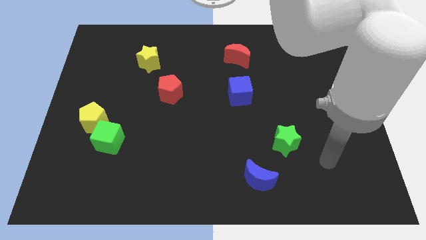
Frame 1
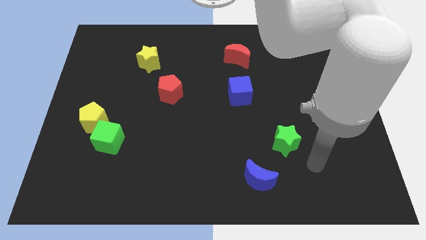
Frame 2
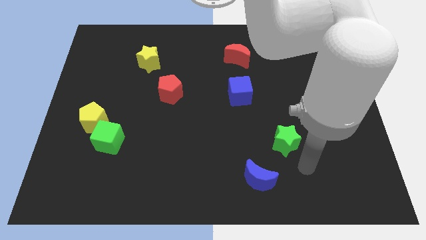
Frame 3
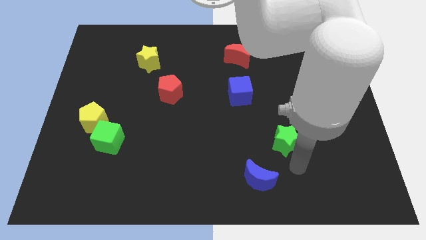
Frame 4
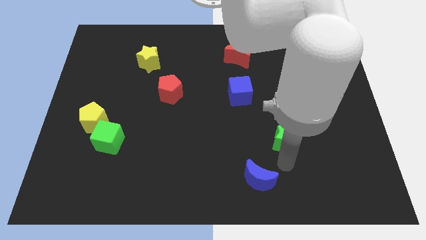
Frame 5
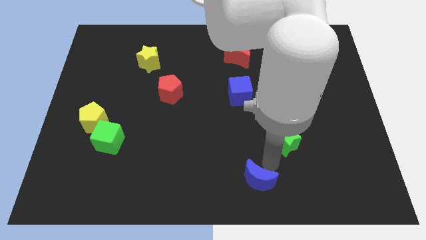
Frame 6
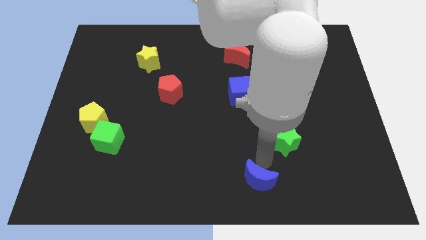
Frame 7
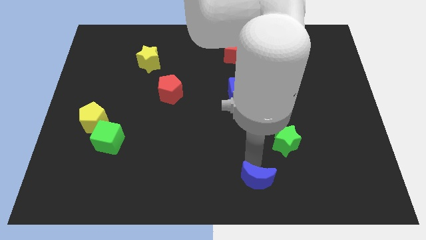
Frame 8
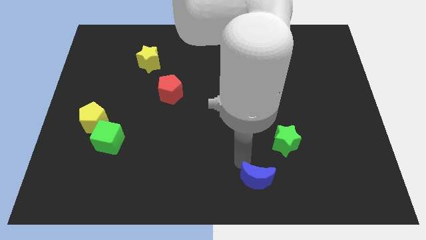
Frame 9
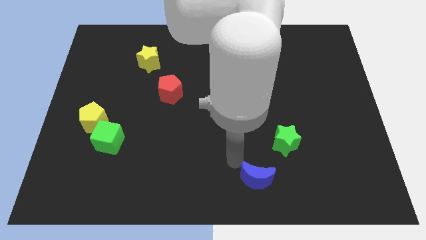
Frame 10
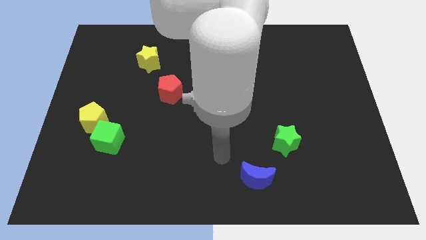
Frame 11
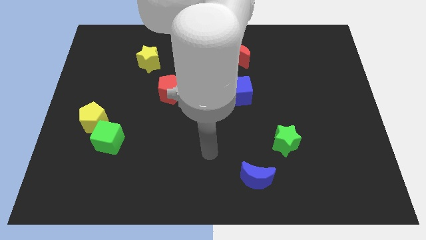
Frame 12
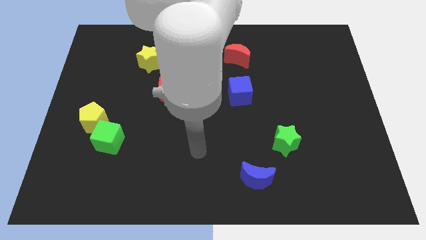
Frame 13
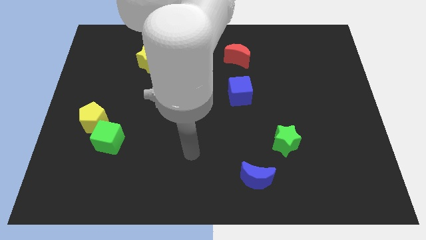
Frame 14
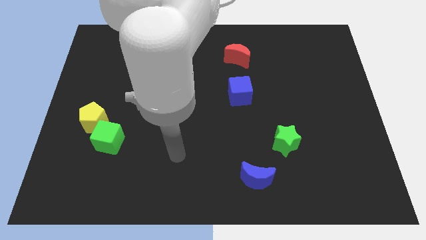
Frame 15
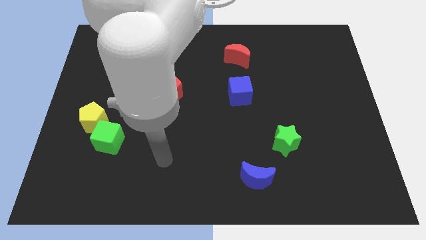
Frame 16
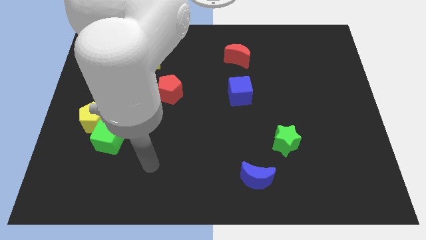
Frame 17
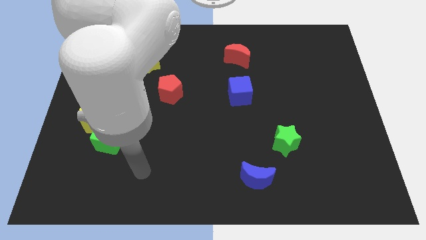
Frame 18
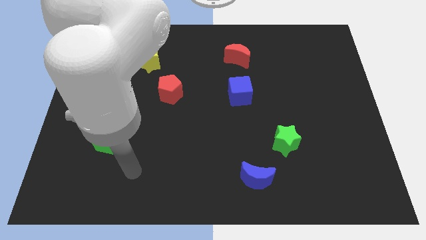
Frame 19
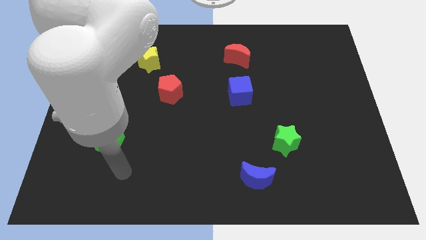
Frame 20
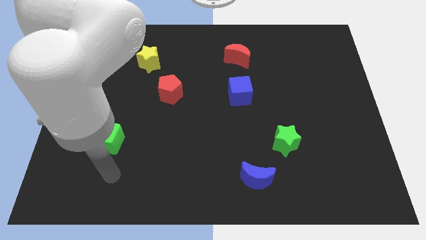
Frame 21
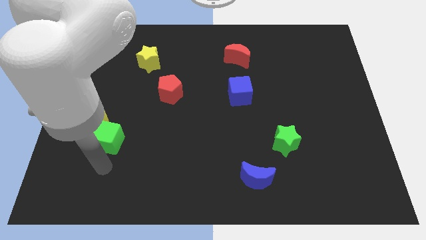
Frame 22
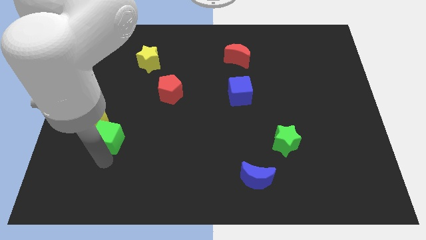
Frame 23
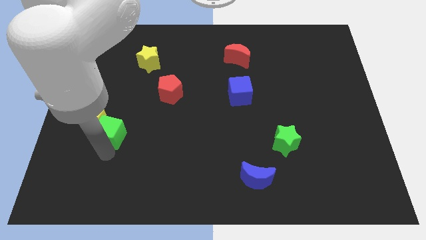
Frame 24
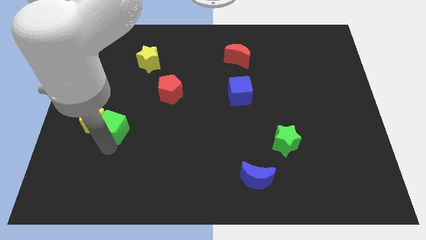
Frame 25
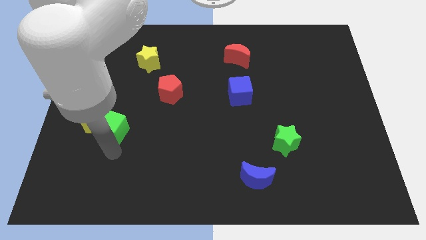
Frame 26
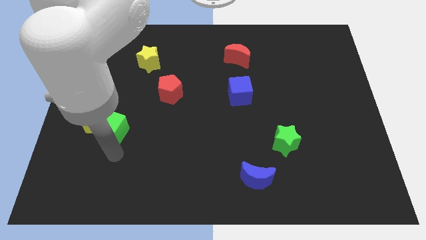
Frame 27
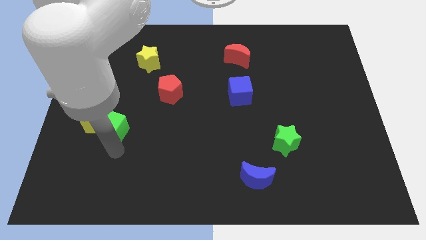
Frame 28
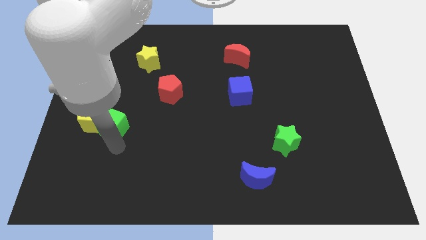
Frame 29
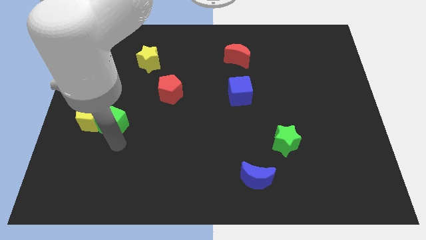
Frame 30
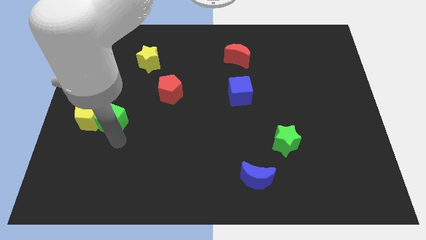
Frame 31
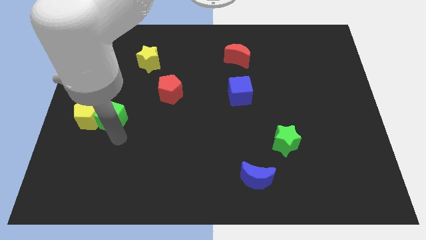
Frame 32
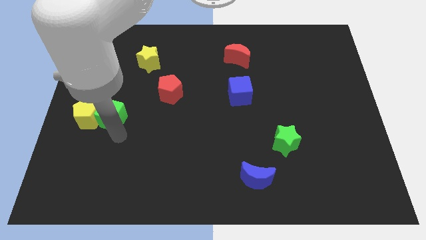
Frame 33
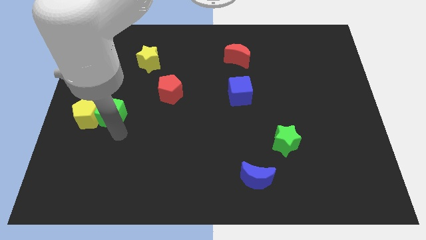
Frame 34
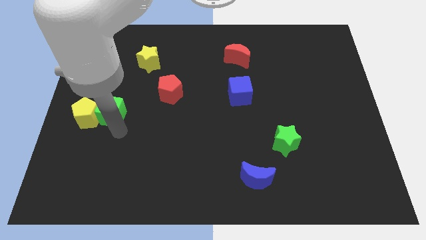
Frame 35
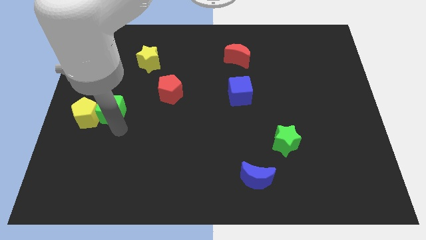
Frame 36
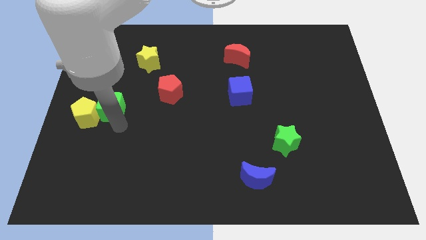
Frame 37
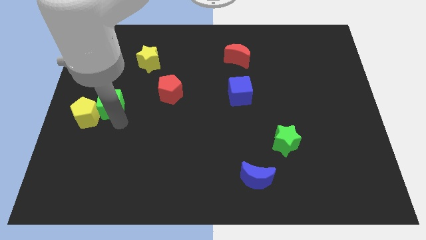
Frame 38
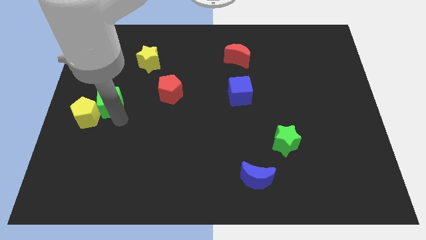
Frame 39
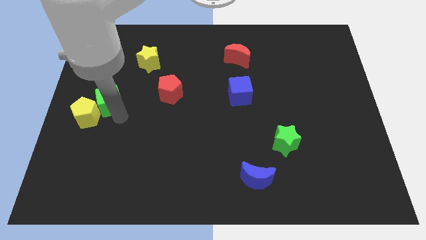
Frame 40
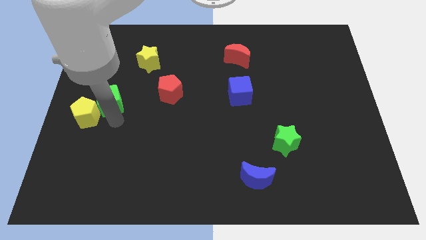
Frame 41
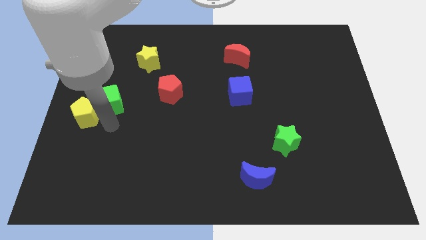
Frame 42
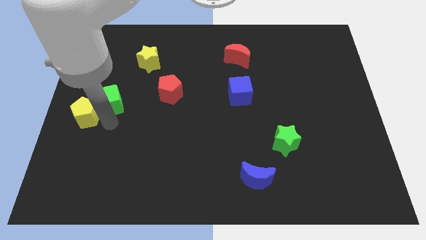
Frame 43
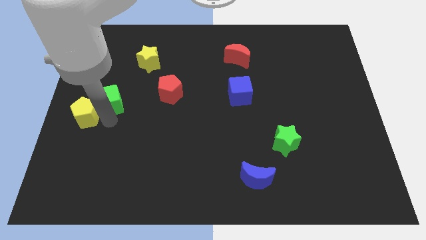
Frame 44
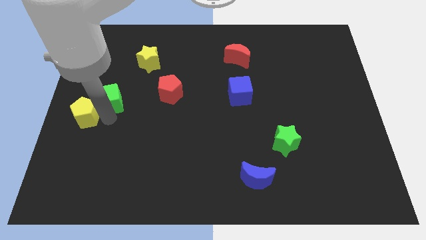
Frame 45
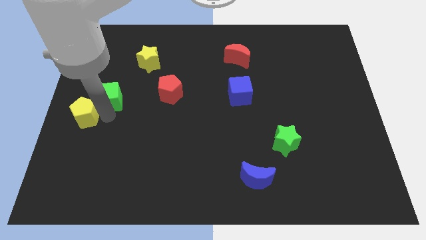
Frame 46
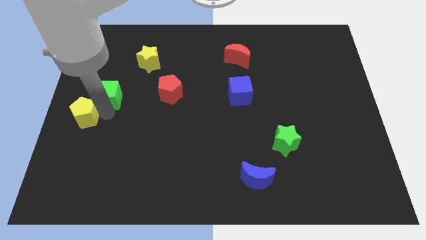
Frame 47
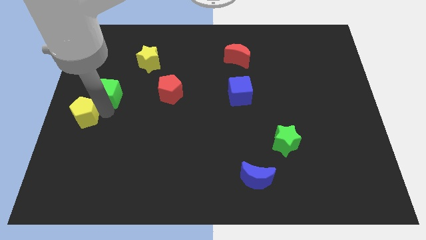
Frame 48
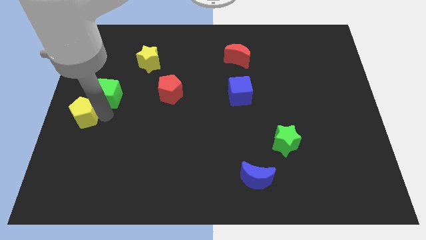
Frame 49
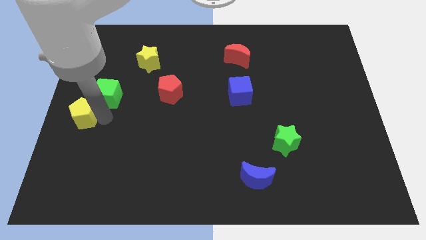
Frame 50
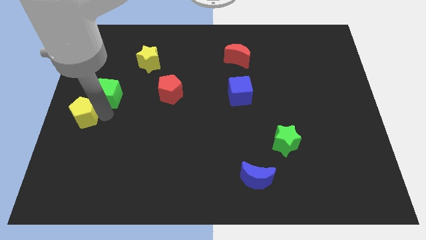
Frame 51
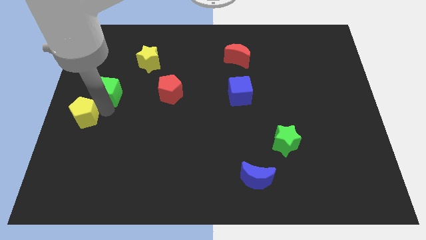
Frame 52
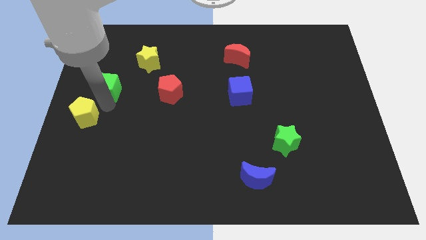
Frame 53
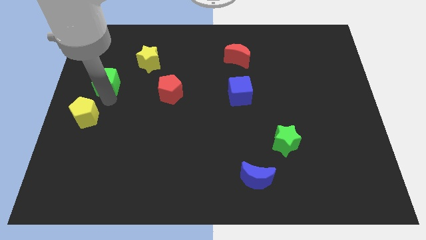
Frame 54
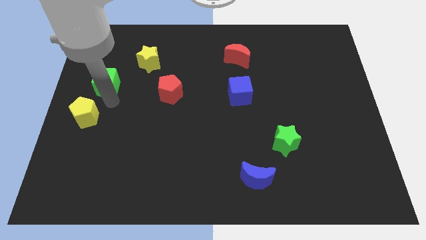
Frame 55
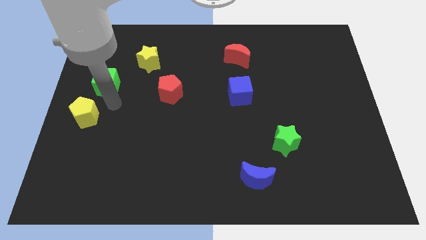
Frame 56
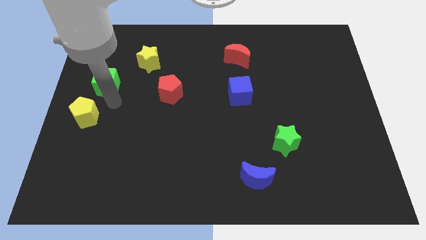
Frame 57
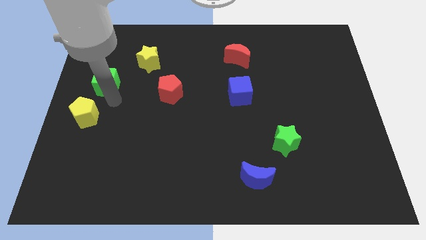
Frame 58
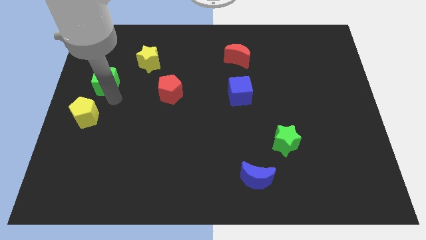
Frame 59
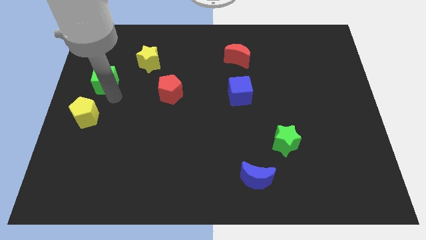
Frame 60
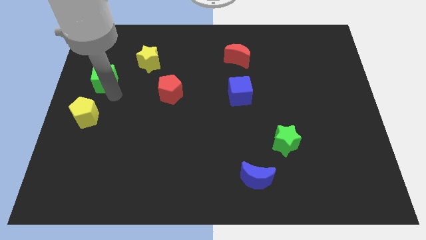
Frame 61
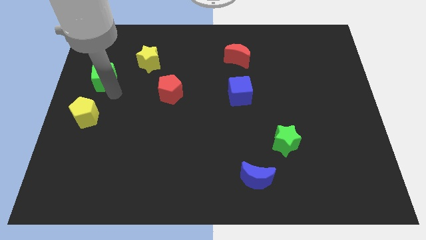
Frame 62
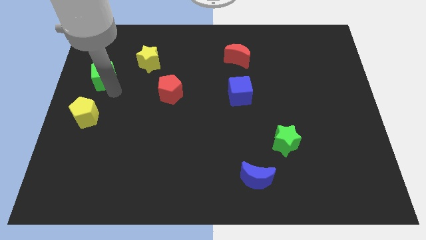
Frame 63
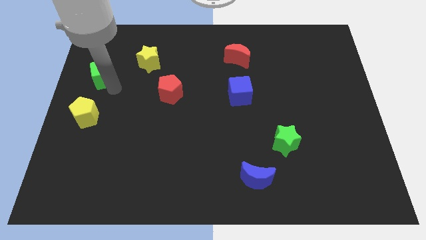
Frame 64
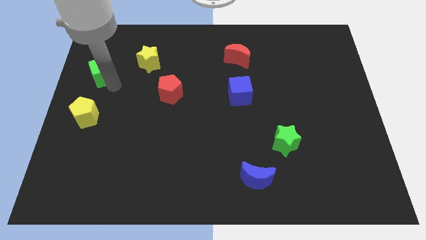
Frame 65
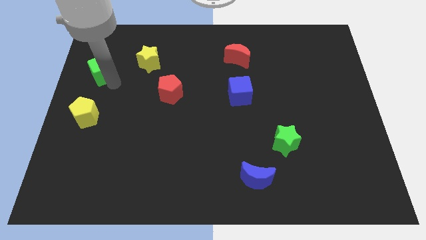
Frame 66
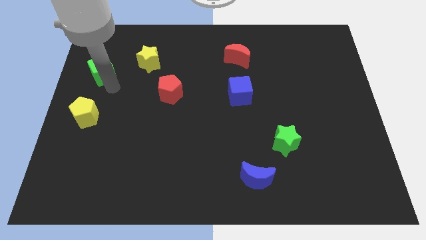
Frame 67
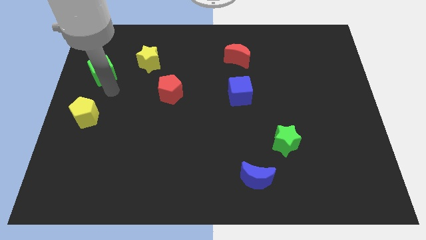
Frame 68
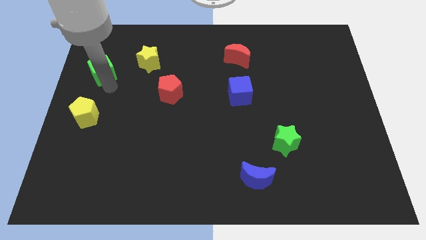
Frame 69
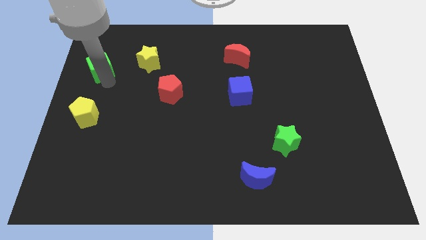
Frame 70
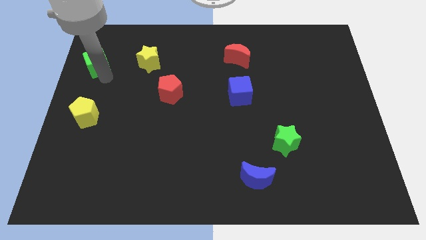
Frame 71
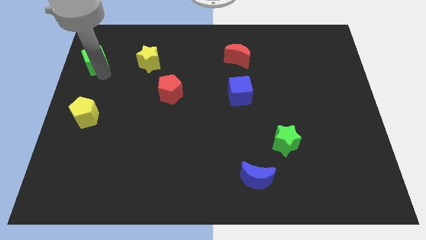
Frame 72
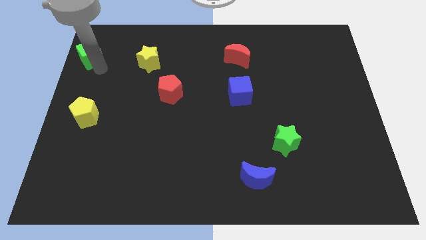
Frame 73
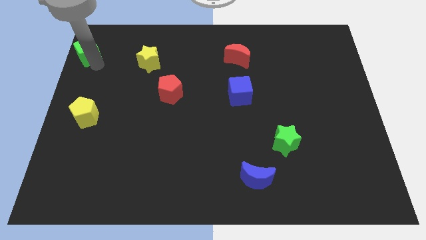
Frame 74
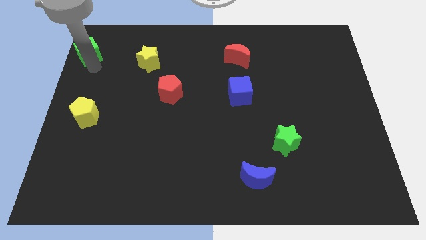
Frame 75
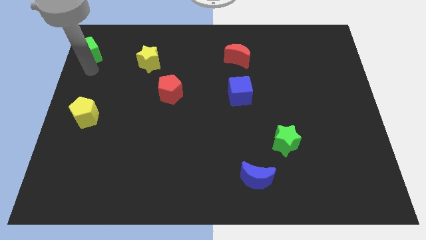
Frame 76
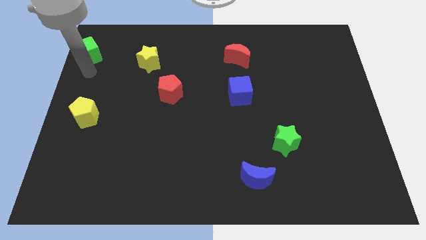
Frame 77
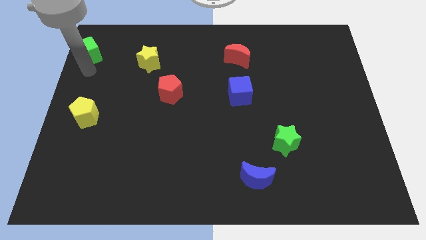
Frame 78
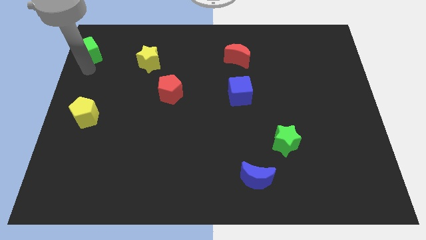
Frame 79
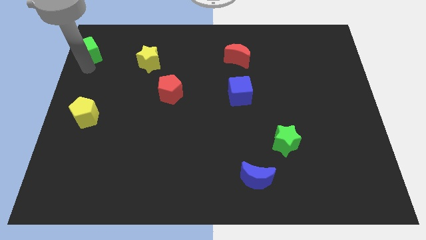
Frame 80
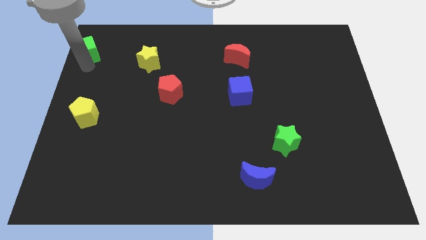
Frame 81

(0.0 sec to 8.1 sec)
move the green cube to the upper left corner
